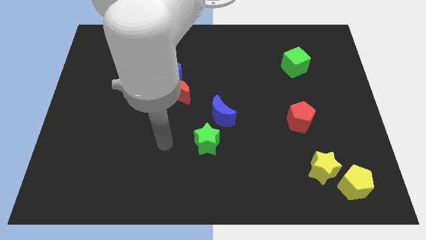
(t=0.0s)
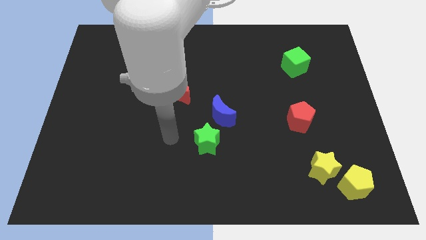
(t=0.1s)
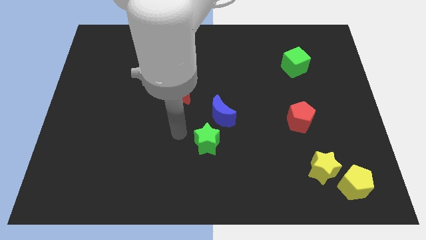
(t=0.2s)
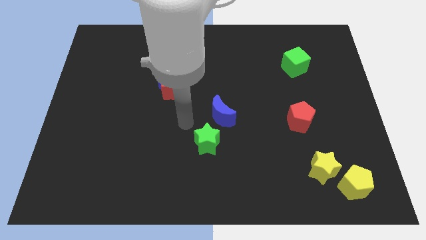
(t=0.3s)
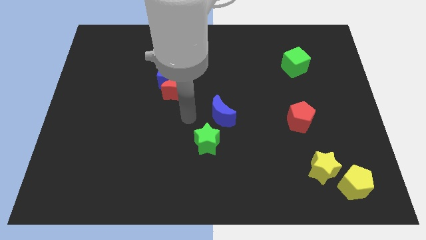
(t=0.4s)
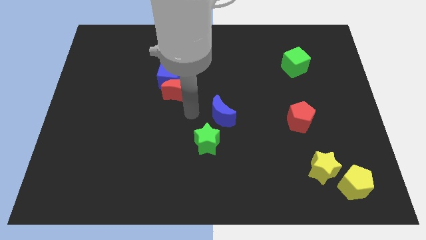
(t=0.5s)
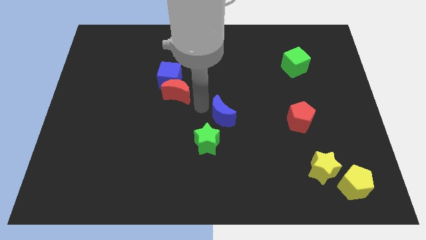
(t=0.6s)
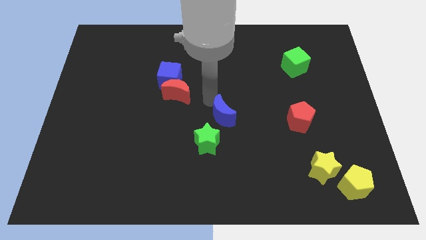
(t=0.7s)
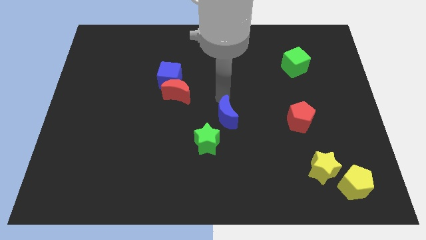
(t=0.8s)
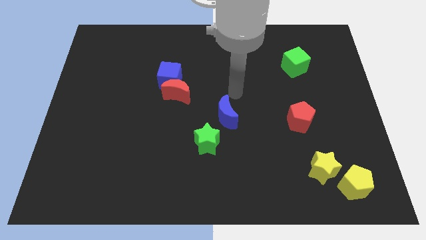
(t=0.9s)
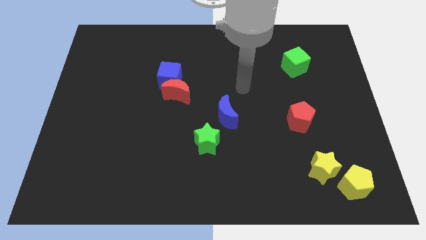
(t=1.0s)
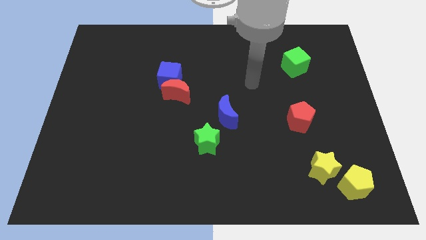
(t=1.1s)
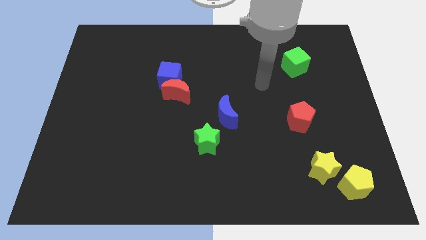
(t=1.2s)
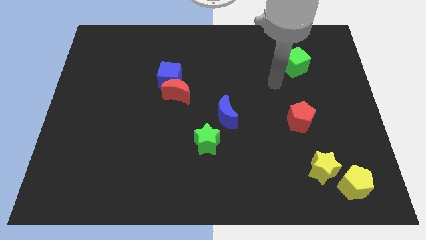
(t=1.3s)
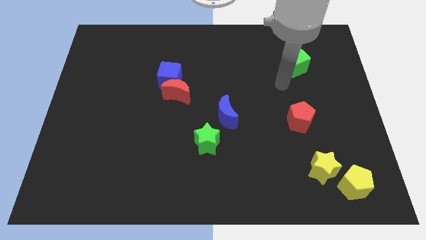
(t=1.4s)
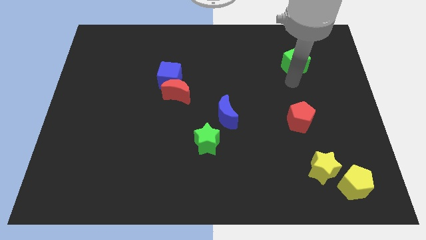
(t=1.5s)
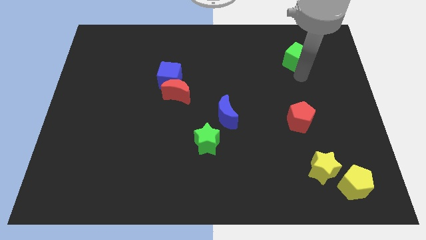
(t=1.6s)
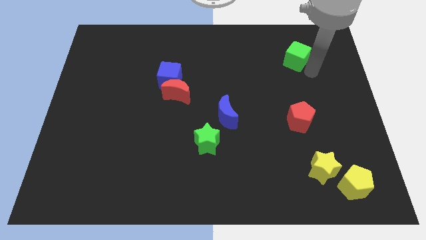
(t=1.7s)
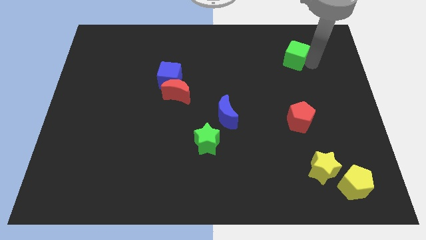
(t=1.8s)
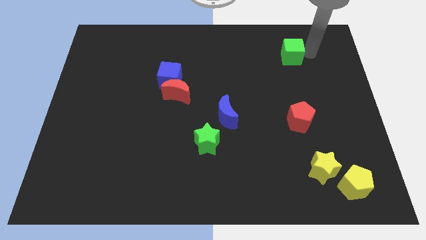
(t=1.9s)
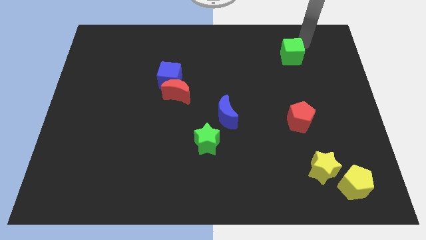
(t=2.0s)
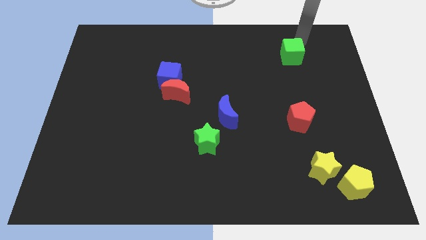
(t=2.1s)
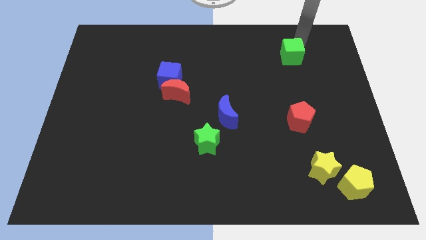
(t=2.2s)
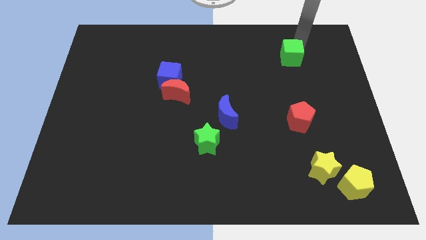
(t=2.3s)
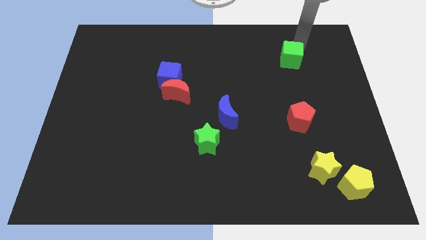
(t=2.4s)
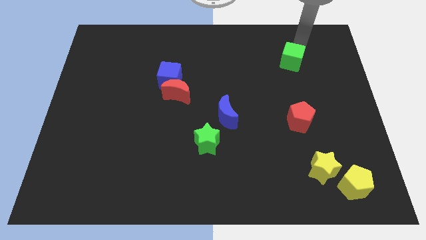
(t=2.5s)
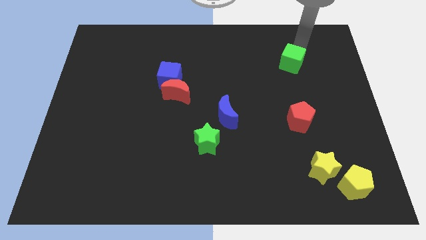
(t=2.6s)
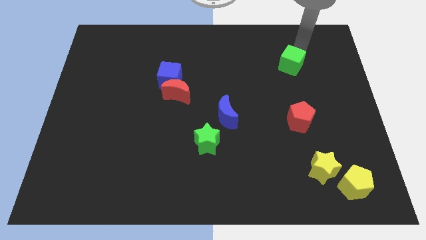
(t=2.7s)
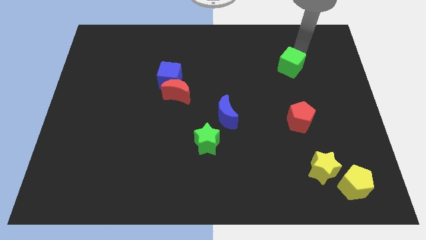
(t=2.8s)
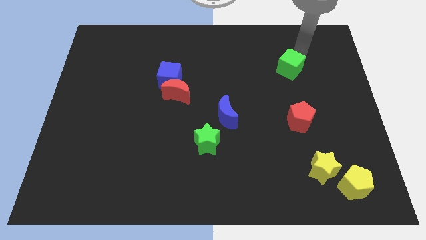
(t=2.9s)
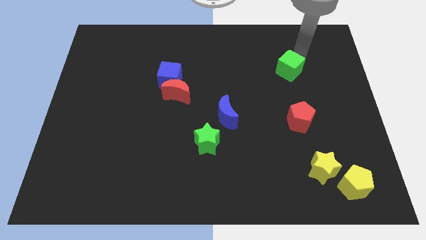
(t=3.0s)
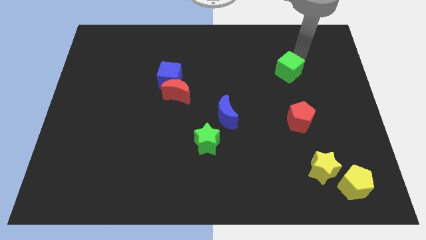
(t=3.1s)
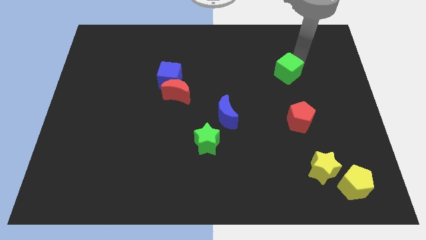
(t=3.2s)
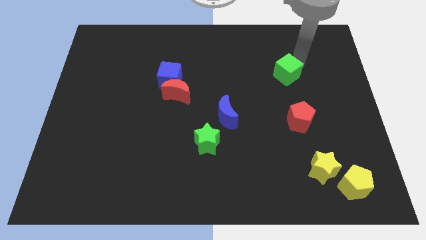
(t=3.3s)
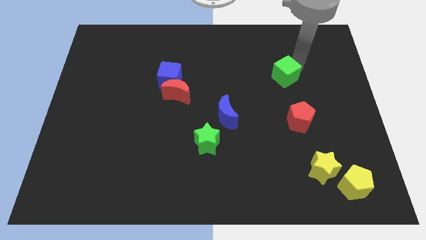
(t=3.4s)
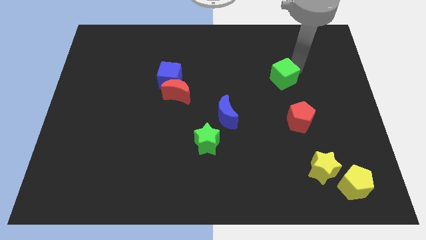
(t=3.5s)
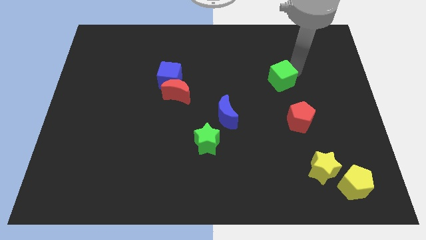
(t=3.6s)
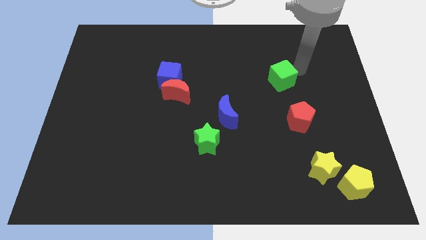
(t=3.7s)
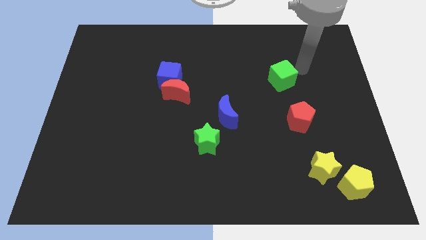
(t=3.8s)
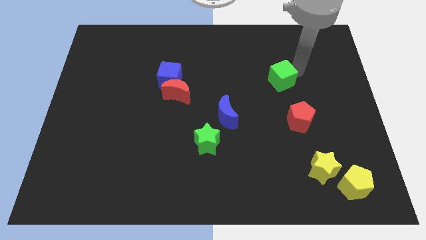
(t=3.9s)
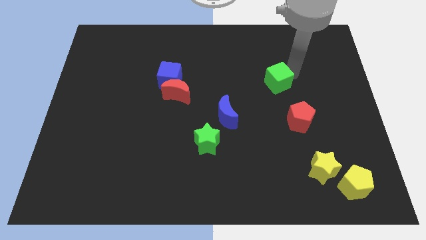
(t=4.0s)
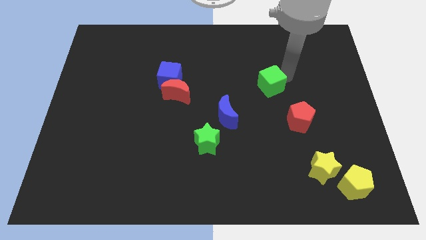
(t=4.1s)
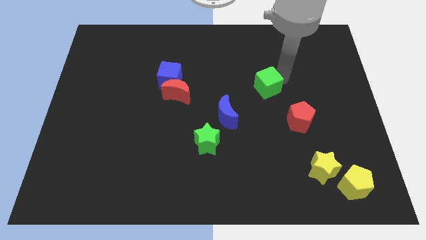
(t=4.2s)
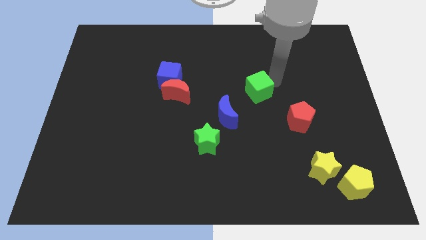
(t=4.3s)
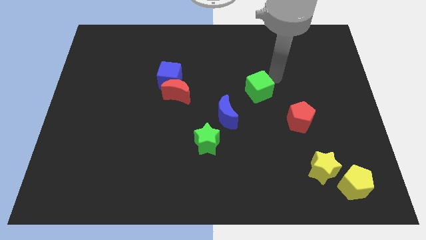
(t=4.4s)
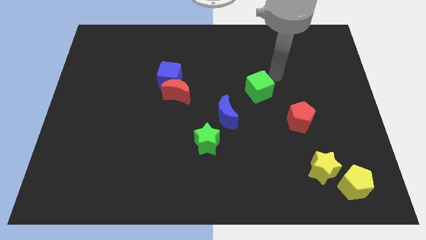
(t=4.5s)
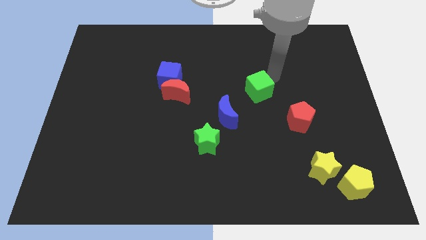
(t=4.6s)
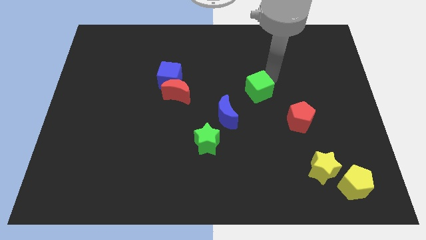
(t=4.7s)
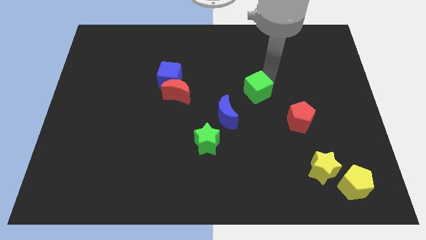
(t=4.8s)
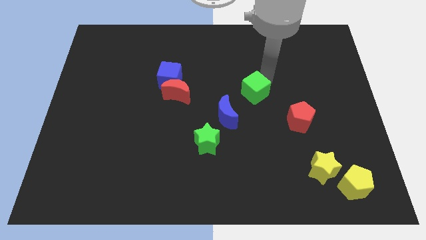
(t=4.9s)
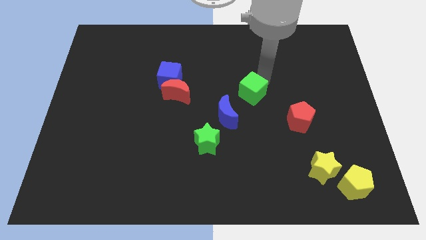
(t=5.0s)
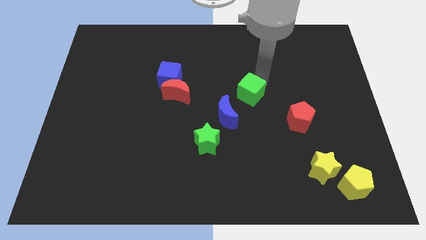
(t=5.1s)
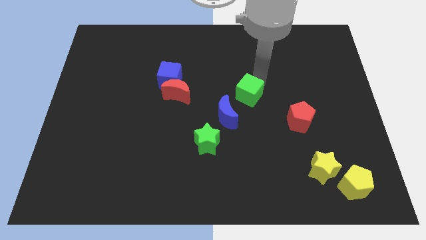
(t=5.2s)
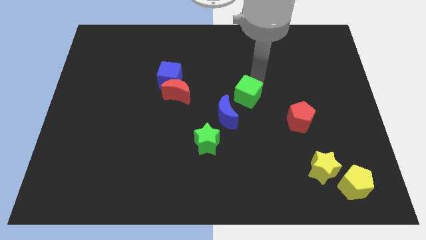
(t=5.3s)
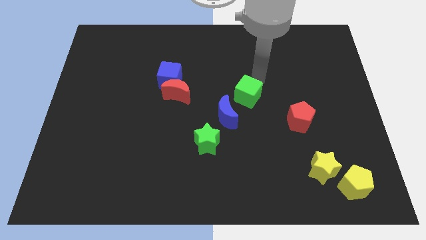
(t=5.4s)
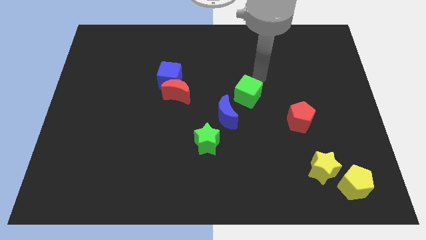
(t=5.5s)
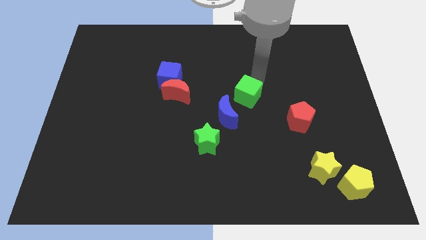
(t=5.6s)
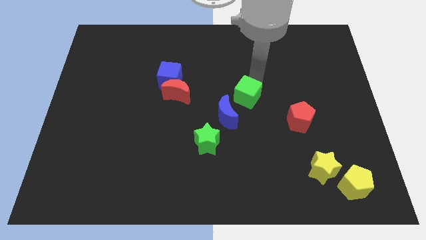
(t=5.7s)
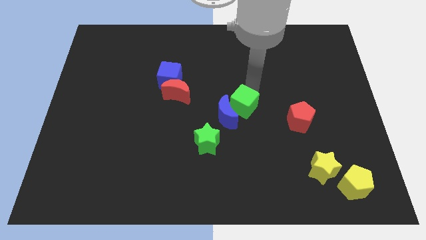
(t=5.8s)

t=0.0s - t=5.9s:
move the green cube towards the blue moon

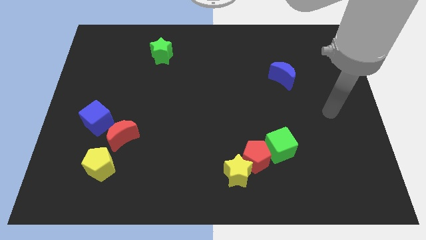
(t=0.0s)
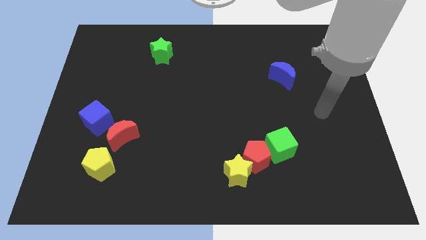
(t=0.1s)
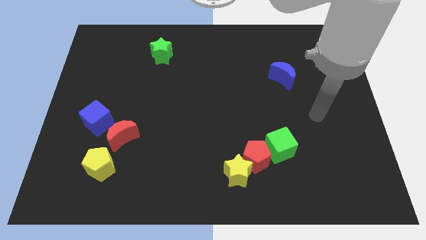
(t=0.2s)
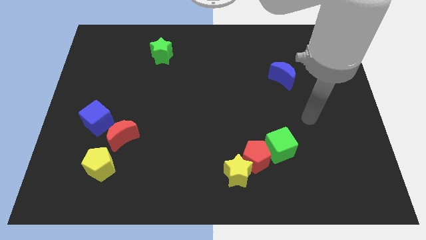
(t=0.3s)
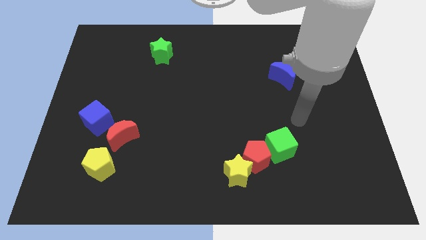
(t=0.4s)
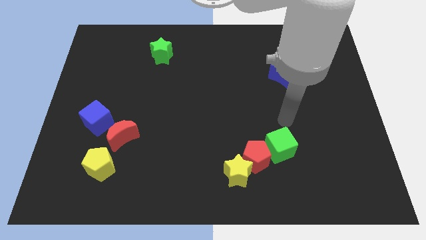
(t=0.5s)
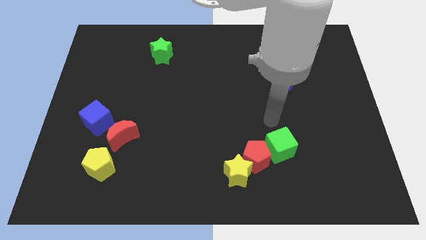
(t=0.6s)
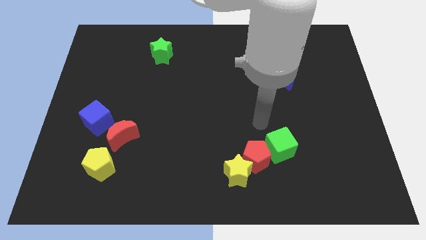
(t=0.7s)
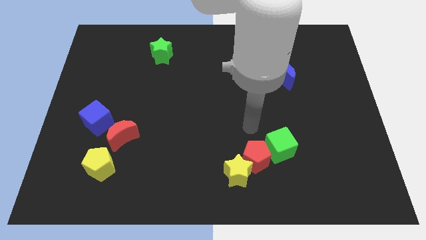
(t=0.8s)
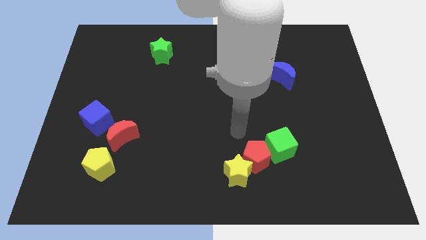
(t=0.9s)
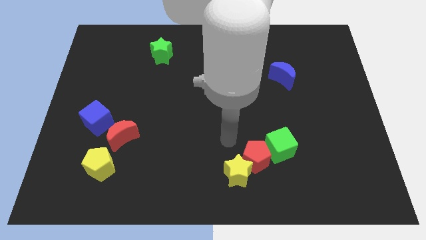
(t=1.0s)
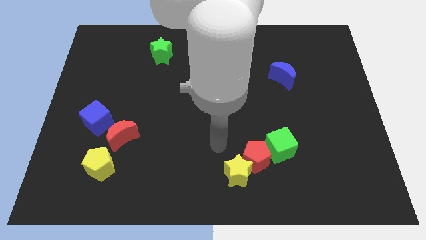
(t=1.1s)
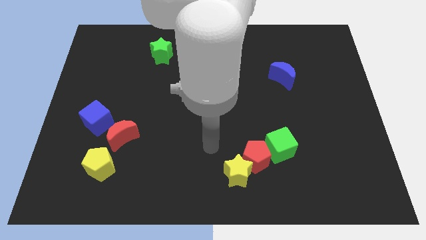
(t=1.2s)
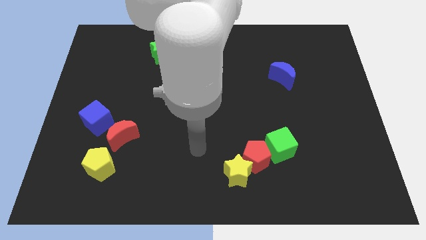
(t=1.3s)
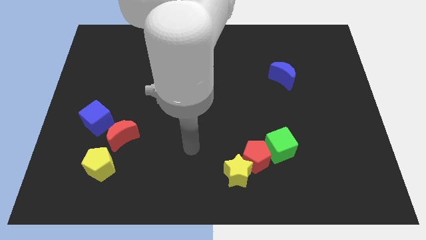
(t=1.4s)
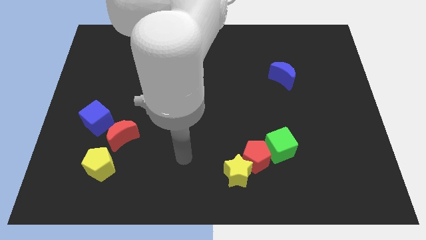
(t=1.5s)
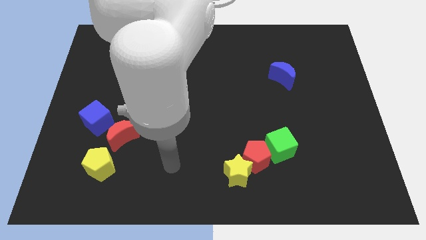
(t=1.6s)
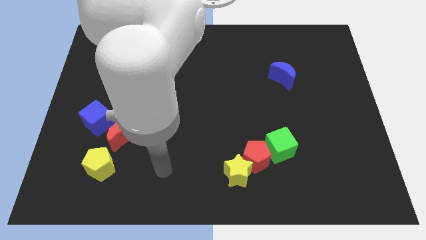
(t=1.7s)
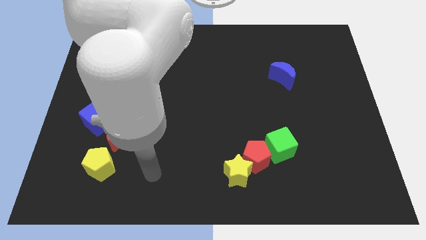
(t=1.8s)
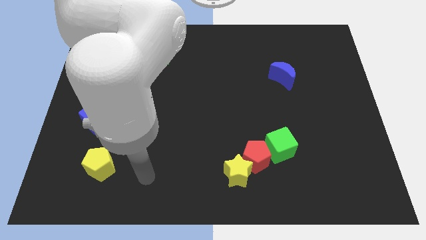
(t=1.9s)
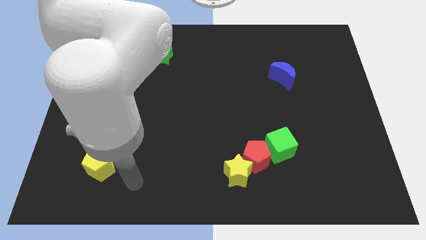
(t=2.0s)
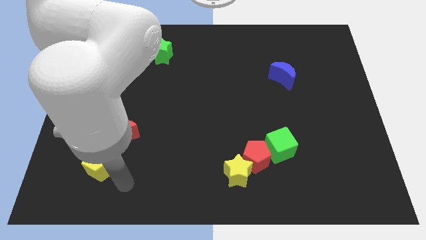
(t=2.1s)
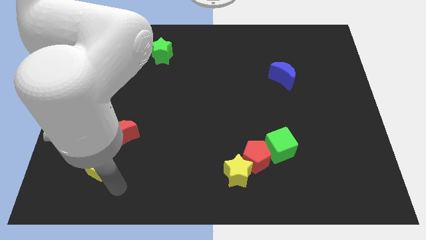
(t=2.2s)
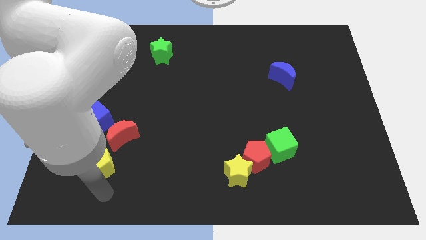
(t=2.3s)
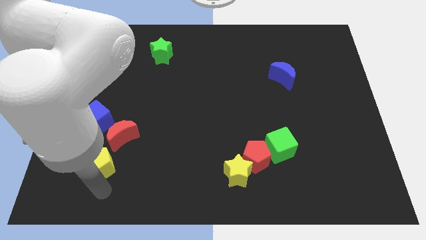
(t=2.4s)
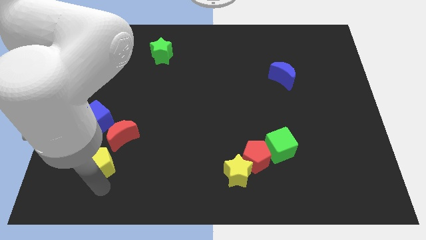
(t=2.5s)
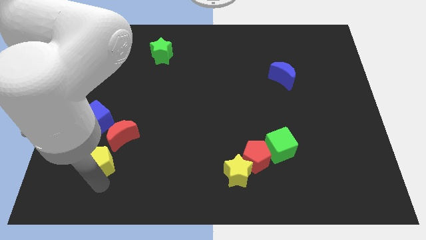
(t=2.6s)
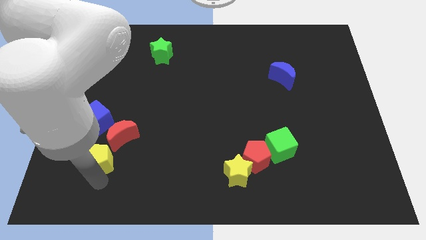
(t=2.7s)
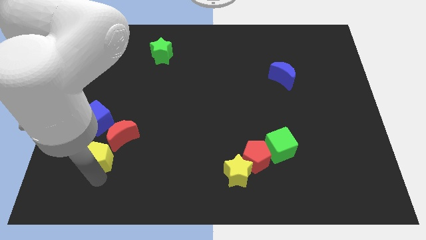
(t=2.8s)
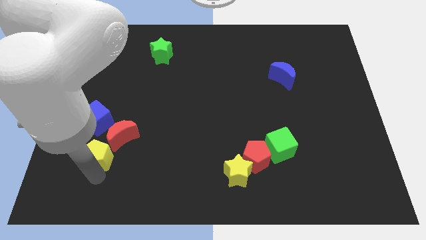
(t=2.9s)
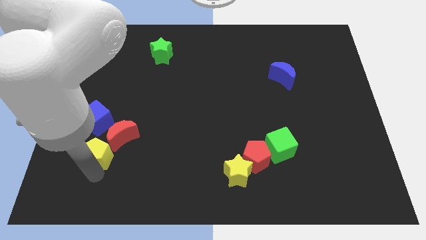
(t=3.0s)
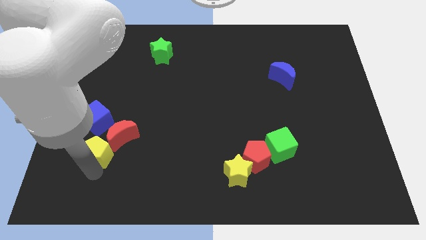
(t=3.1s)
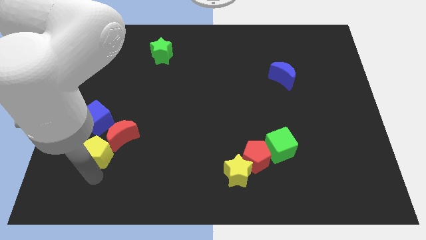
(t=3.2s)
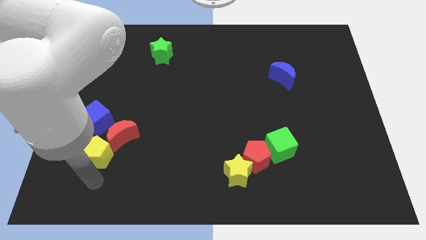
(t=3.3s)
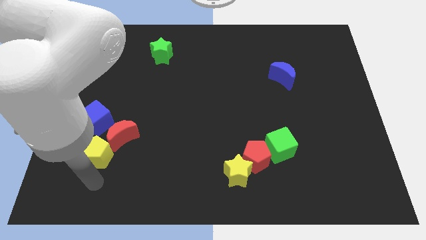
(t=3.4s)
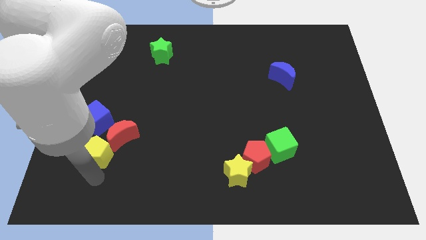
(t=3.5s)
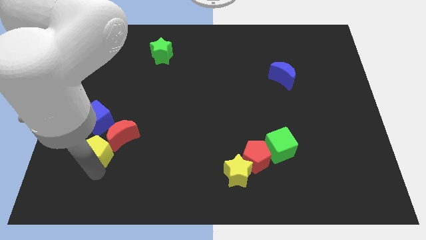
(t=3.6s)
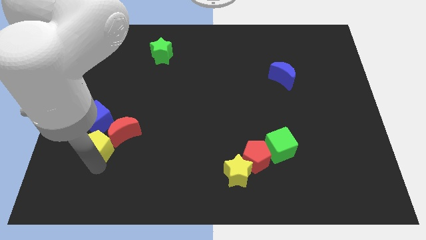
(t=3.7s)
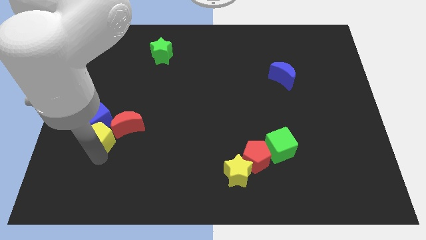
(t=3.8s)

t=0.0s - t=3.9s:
move the yellow pentagon towards the blue cube
